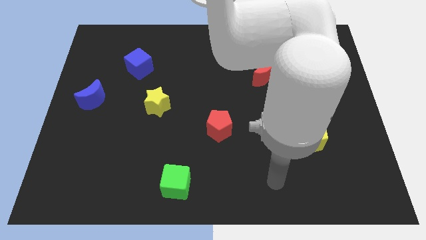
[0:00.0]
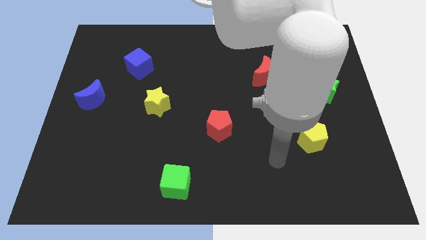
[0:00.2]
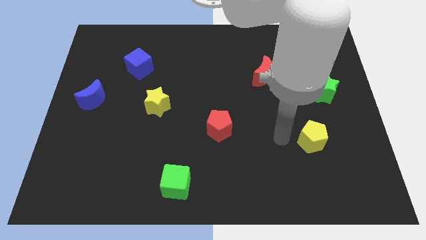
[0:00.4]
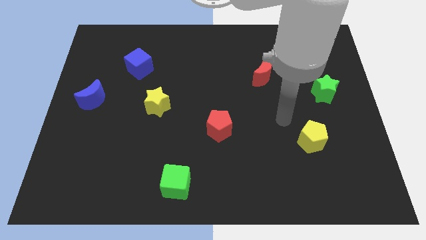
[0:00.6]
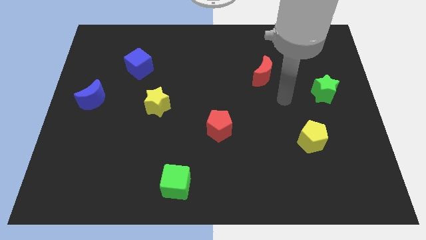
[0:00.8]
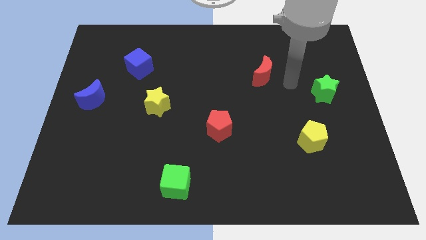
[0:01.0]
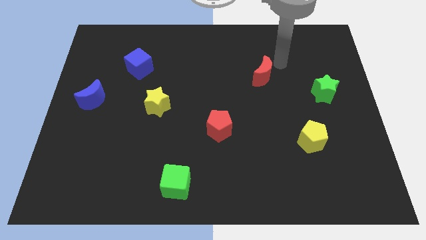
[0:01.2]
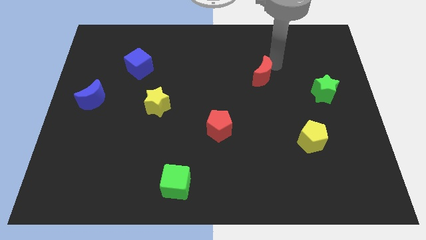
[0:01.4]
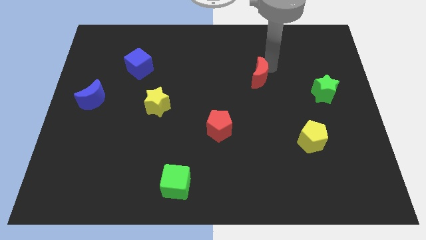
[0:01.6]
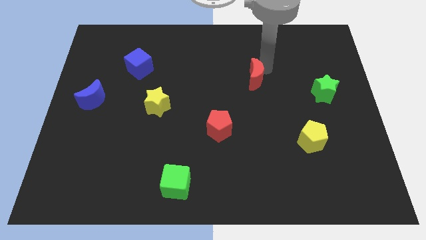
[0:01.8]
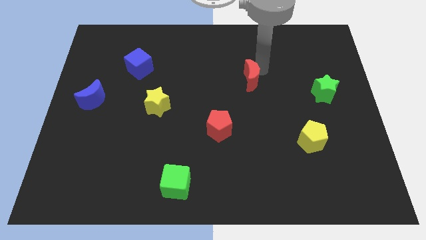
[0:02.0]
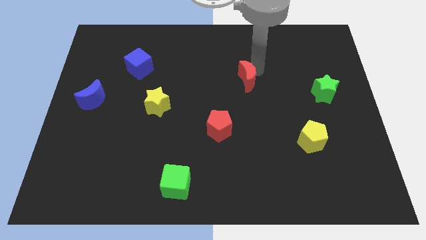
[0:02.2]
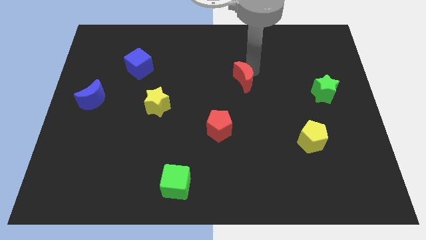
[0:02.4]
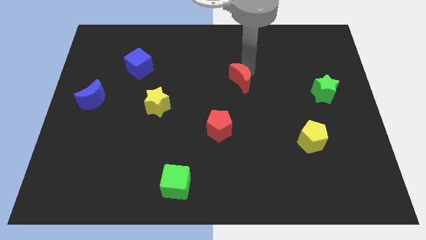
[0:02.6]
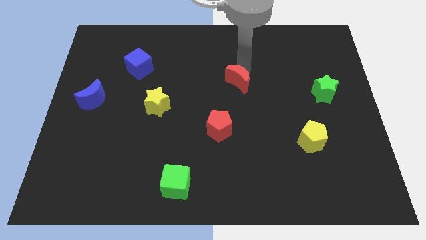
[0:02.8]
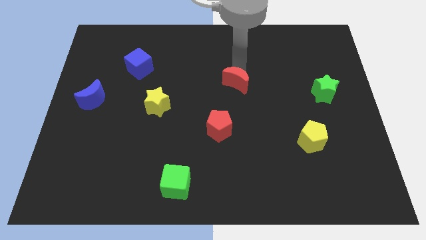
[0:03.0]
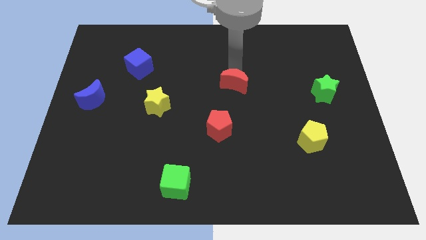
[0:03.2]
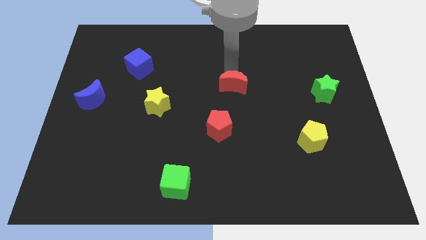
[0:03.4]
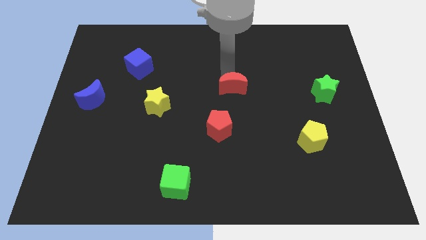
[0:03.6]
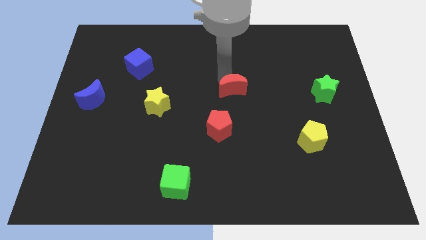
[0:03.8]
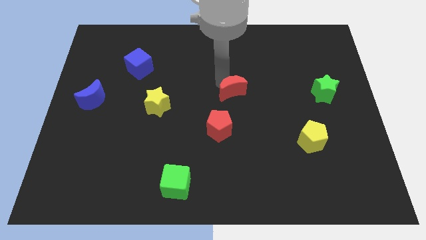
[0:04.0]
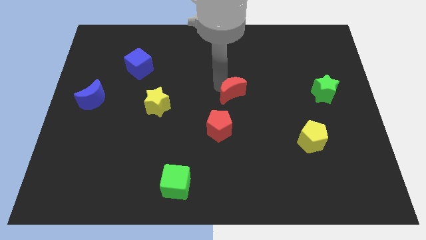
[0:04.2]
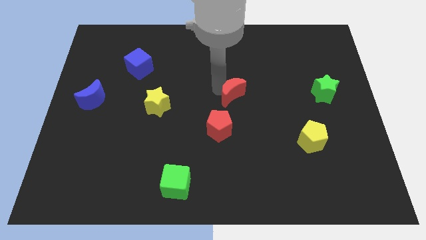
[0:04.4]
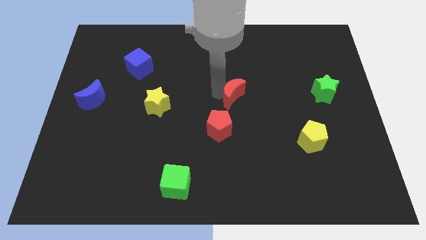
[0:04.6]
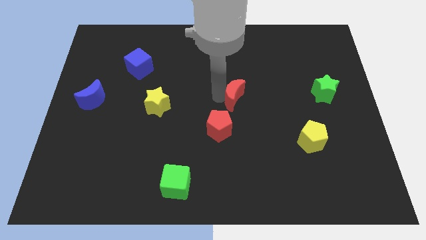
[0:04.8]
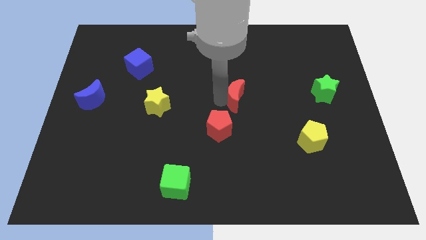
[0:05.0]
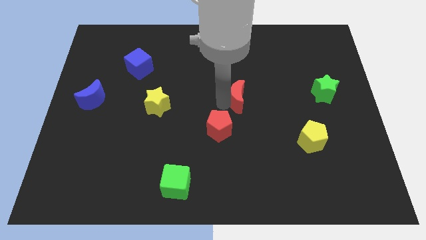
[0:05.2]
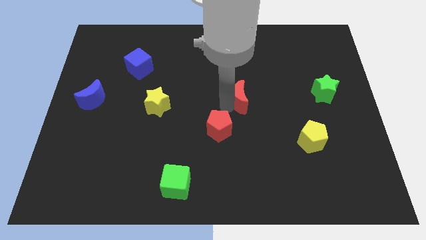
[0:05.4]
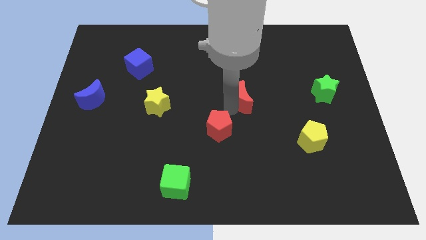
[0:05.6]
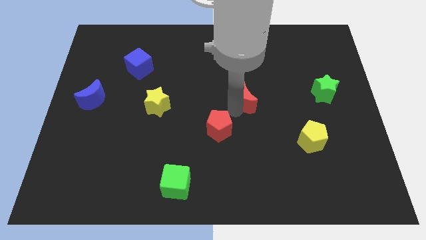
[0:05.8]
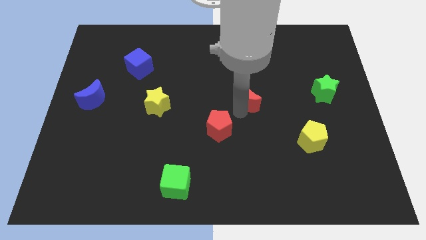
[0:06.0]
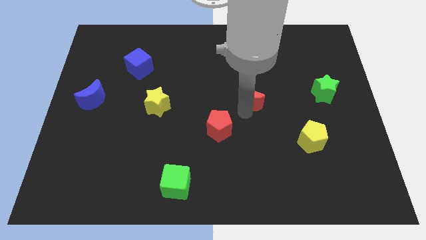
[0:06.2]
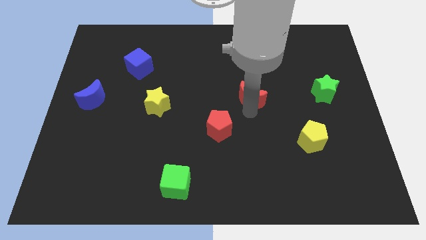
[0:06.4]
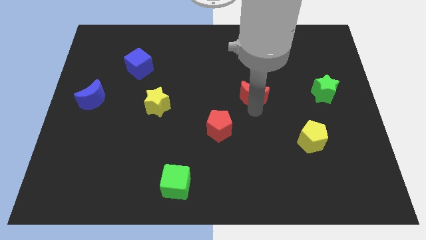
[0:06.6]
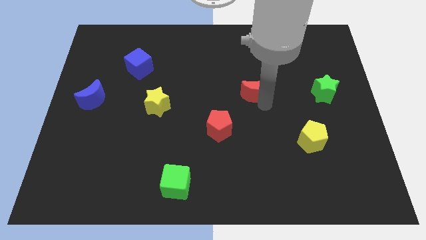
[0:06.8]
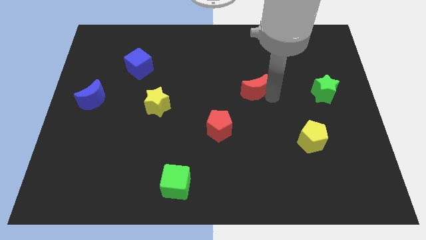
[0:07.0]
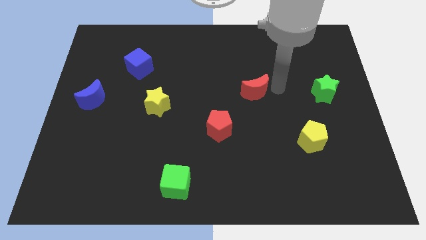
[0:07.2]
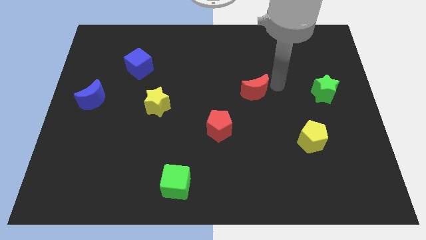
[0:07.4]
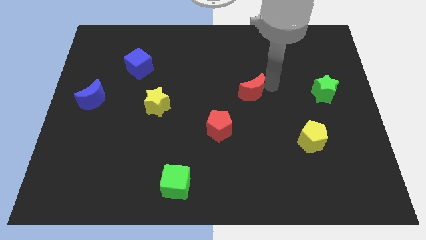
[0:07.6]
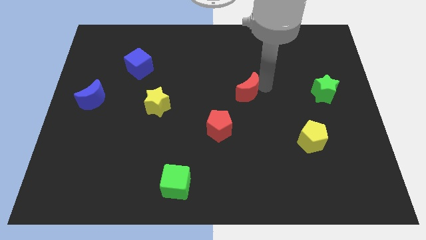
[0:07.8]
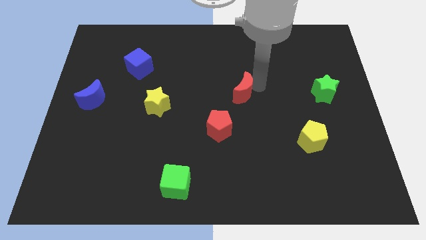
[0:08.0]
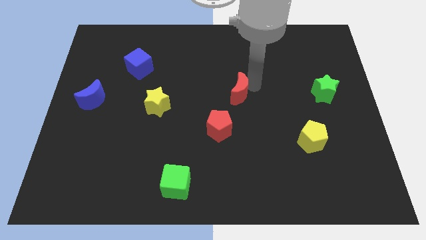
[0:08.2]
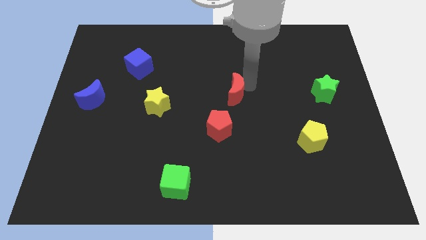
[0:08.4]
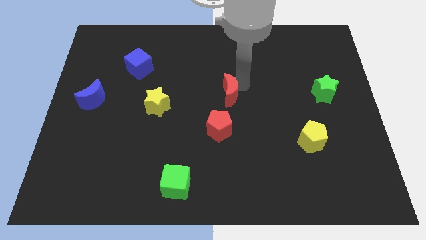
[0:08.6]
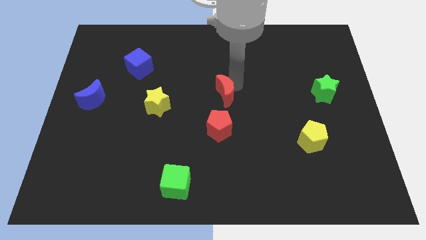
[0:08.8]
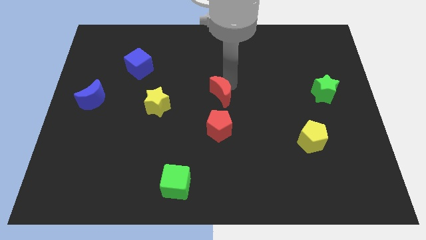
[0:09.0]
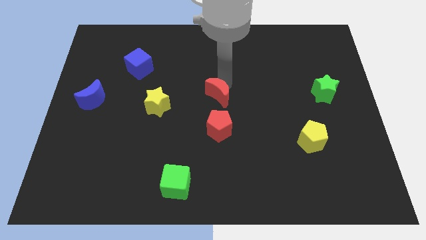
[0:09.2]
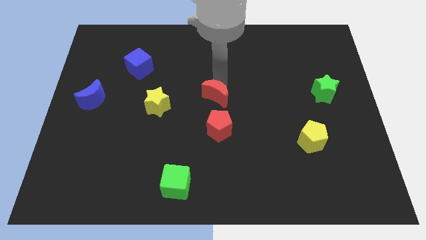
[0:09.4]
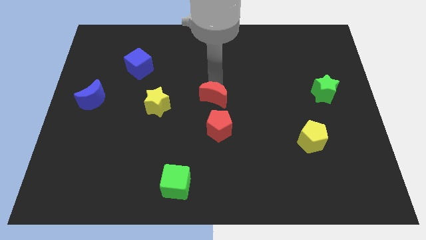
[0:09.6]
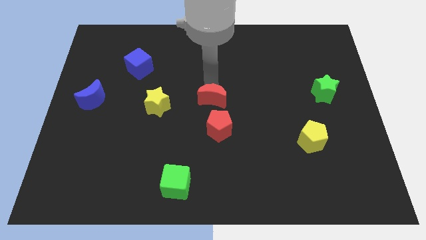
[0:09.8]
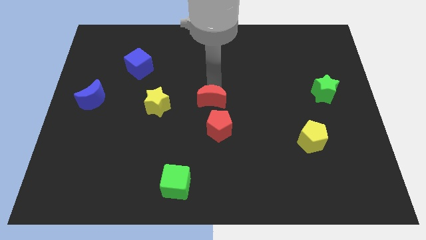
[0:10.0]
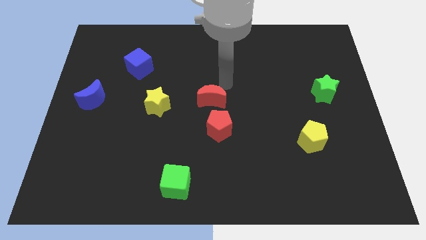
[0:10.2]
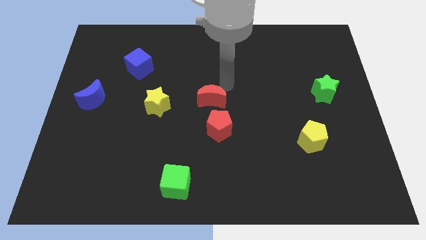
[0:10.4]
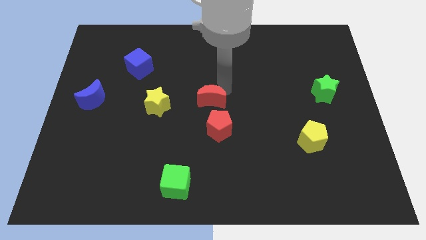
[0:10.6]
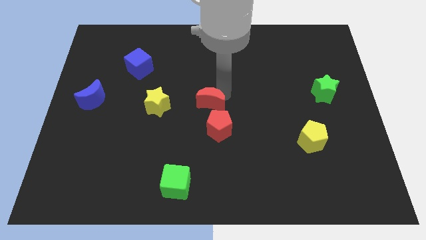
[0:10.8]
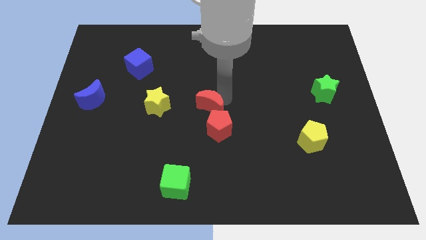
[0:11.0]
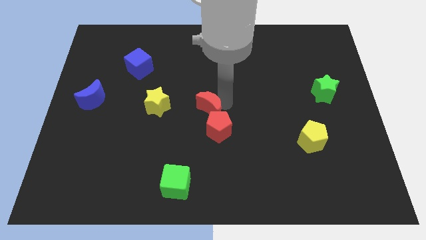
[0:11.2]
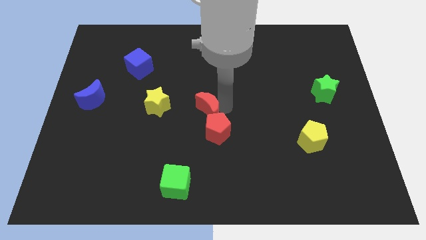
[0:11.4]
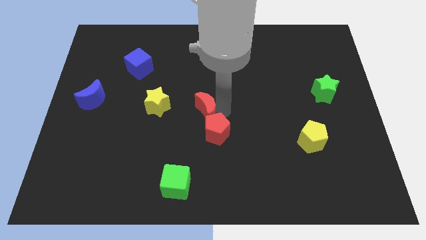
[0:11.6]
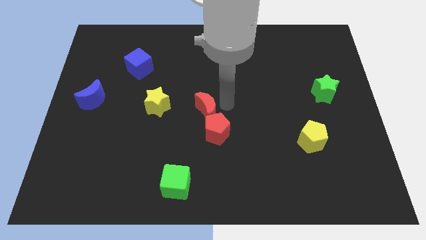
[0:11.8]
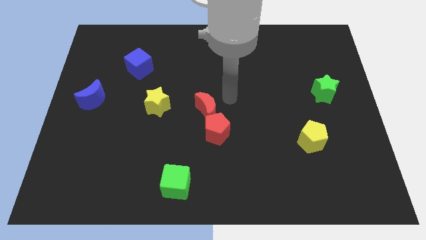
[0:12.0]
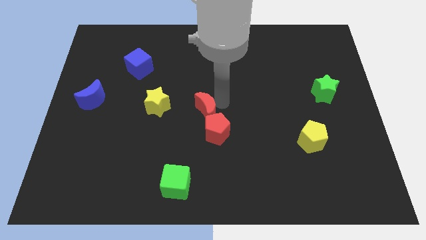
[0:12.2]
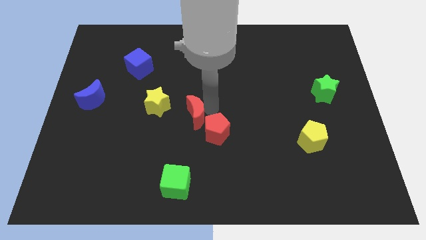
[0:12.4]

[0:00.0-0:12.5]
push the red moon to the bottom right side of the yellow star

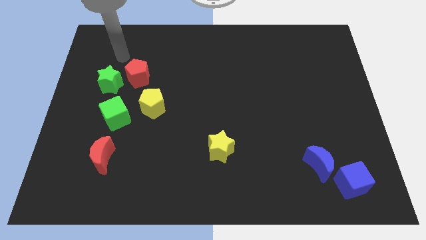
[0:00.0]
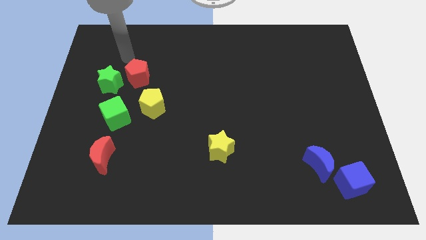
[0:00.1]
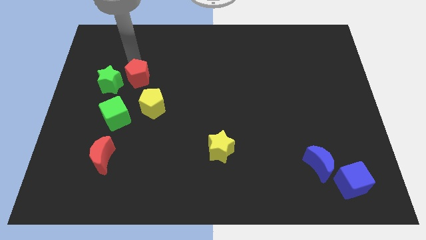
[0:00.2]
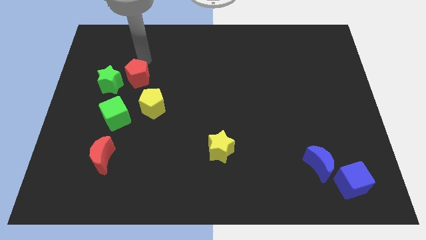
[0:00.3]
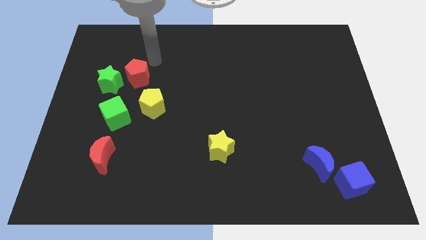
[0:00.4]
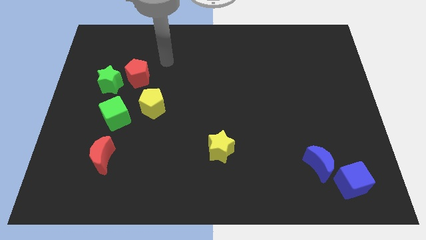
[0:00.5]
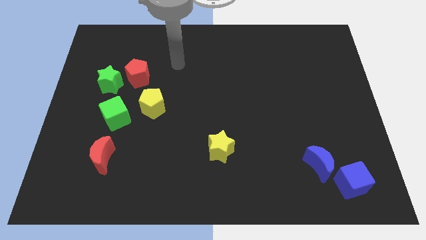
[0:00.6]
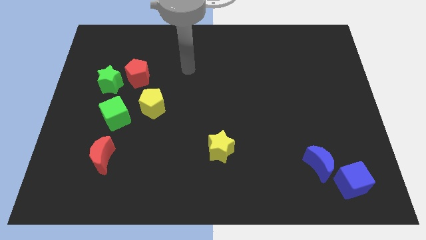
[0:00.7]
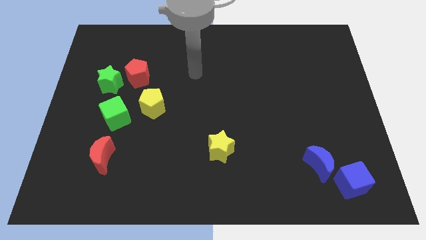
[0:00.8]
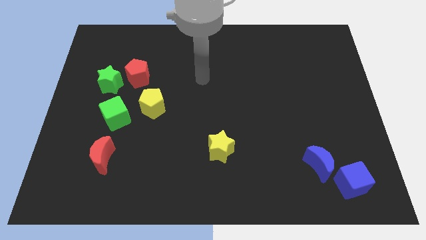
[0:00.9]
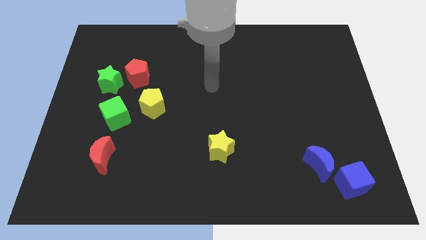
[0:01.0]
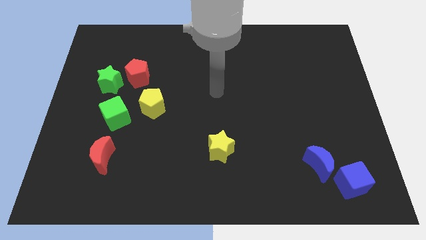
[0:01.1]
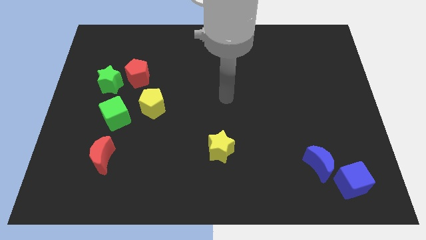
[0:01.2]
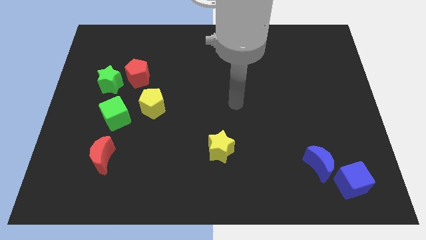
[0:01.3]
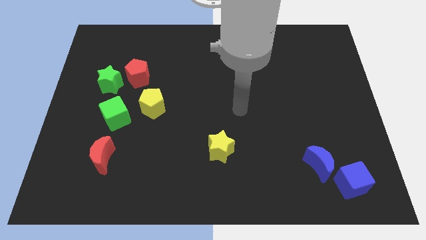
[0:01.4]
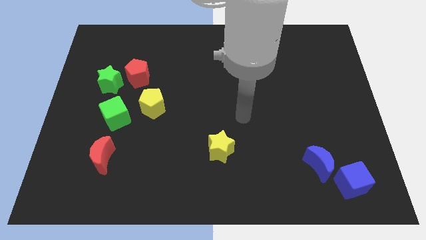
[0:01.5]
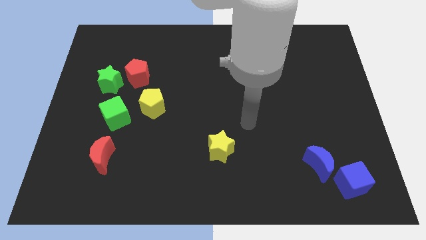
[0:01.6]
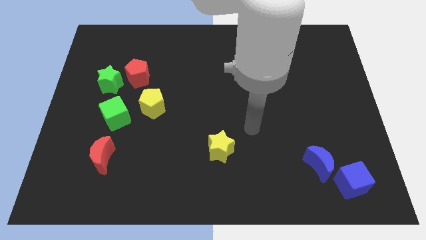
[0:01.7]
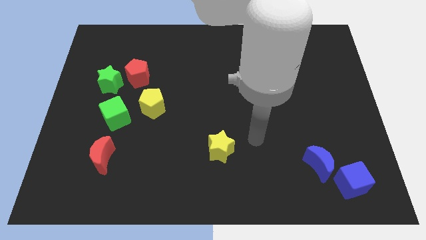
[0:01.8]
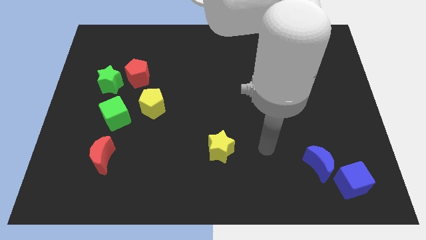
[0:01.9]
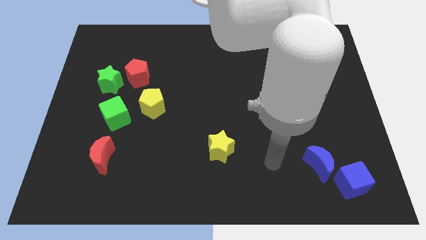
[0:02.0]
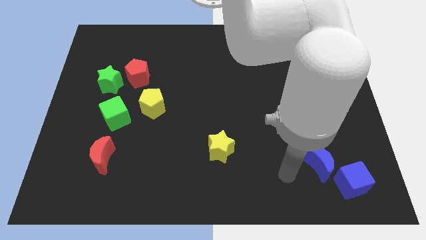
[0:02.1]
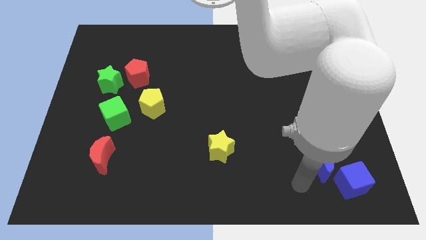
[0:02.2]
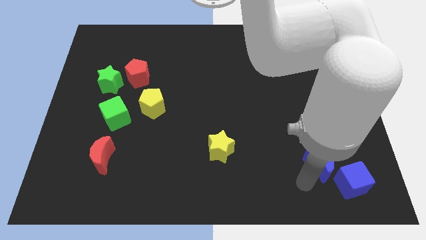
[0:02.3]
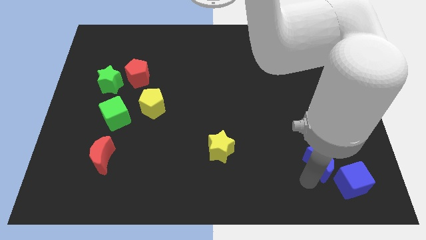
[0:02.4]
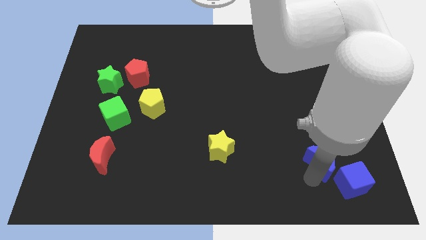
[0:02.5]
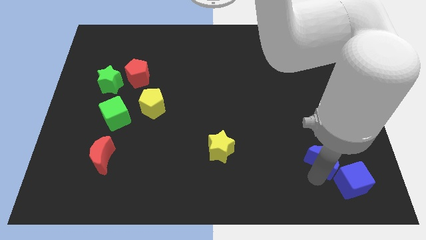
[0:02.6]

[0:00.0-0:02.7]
put the blue moon to the top of the blue cube
